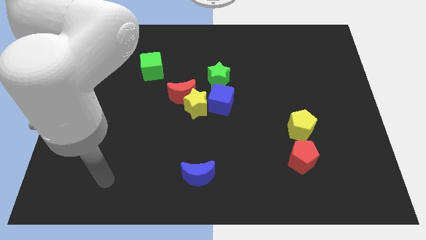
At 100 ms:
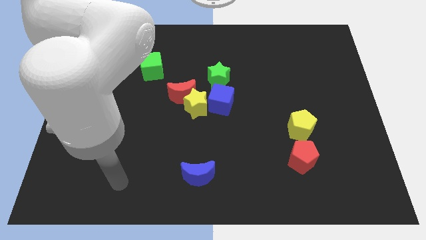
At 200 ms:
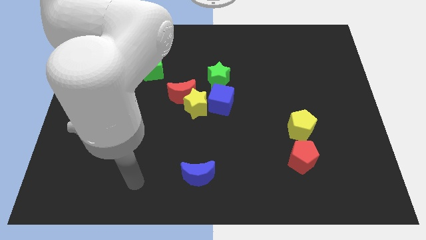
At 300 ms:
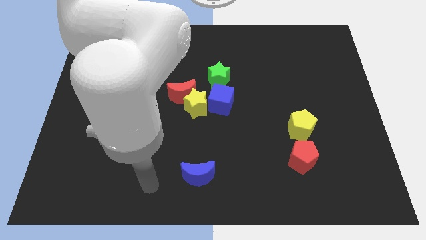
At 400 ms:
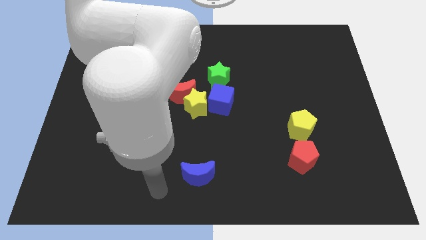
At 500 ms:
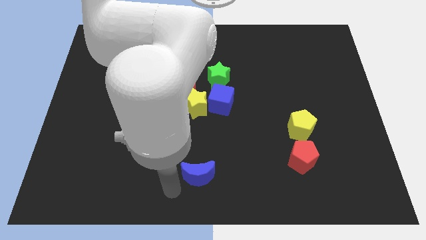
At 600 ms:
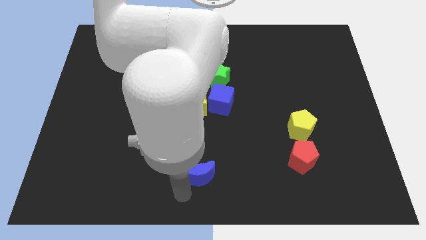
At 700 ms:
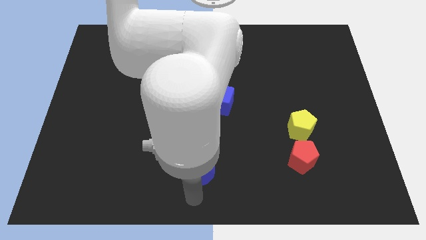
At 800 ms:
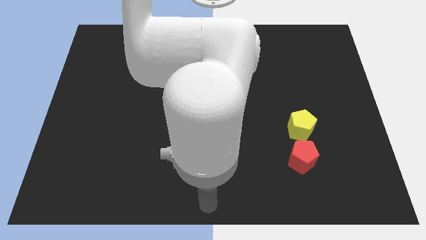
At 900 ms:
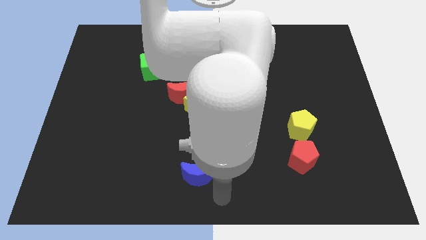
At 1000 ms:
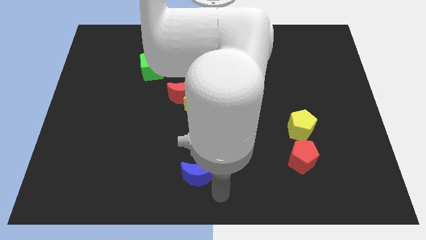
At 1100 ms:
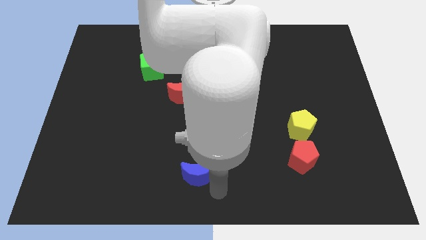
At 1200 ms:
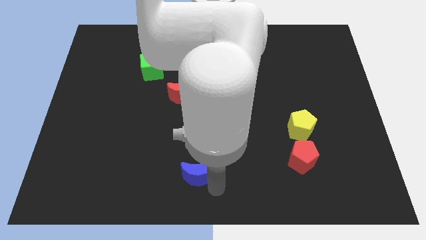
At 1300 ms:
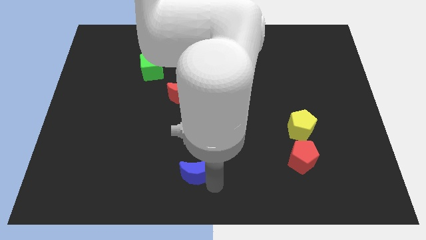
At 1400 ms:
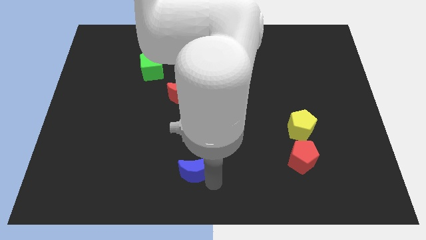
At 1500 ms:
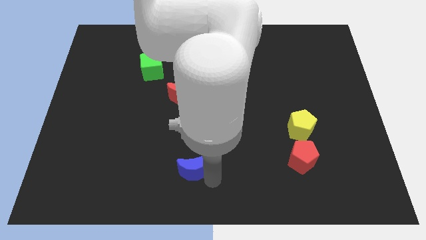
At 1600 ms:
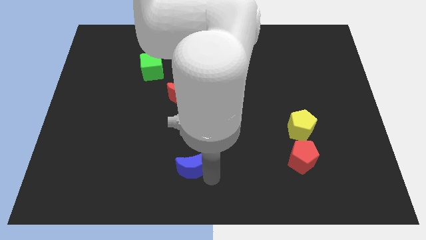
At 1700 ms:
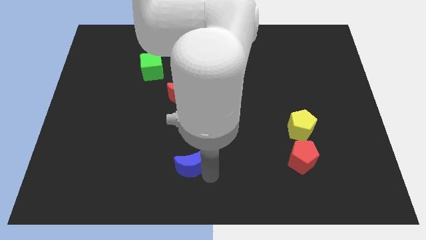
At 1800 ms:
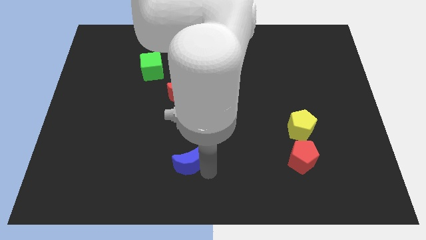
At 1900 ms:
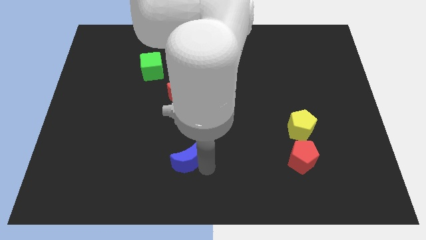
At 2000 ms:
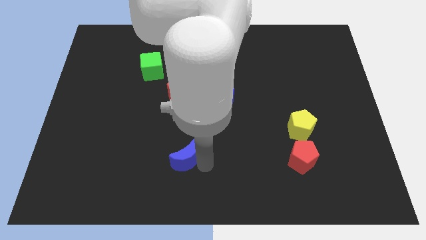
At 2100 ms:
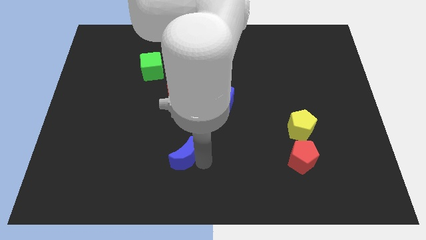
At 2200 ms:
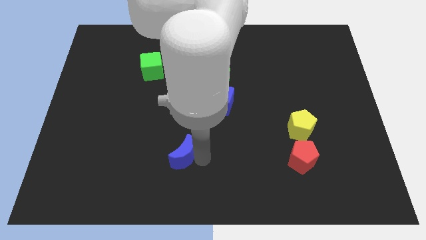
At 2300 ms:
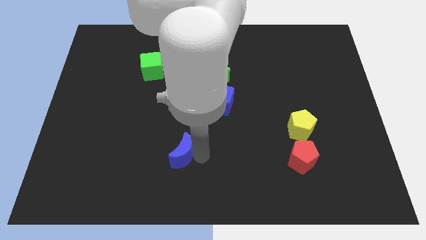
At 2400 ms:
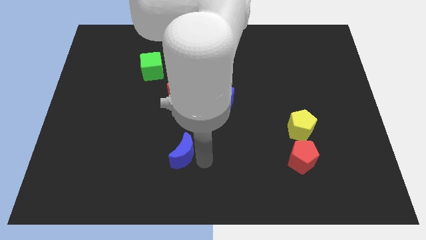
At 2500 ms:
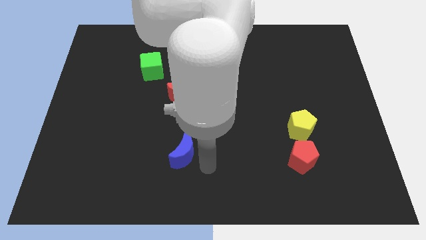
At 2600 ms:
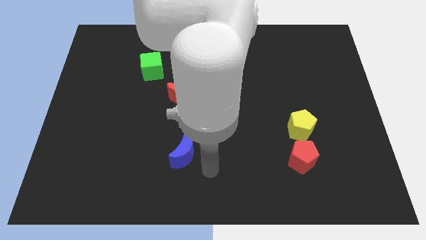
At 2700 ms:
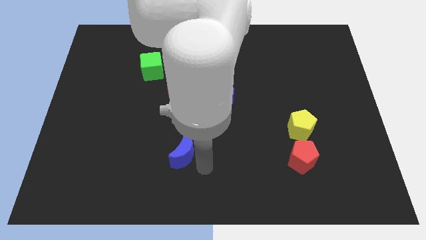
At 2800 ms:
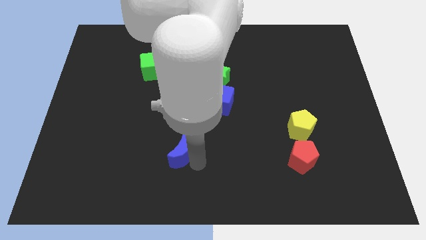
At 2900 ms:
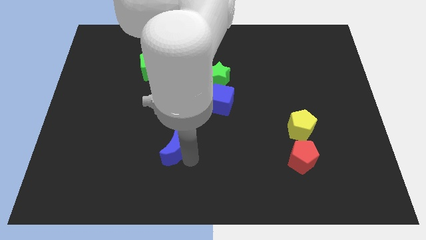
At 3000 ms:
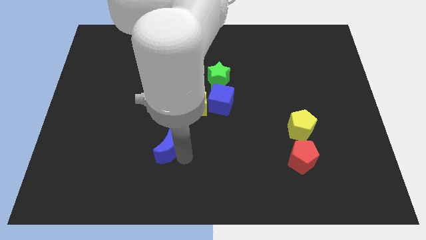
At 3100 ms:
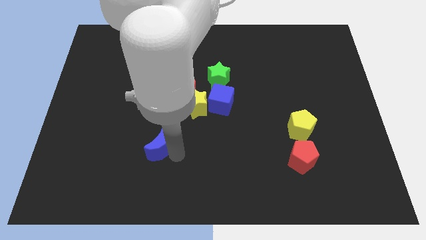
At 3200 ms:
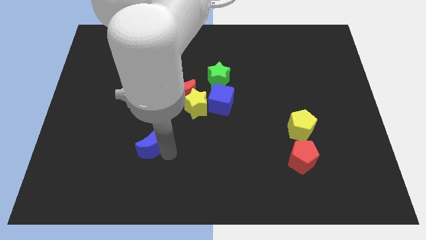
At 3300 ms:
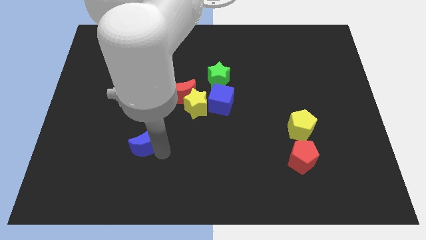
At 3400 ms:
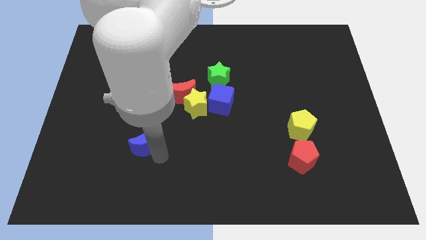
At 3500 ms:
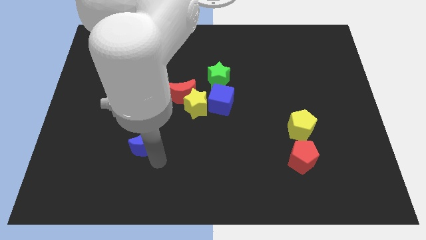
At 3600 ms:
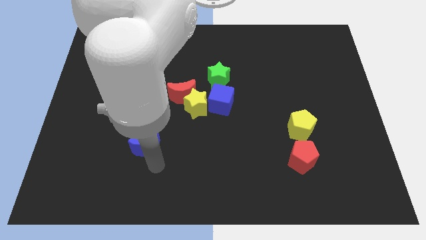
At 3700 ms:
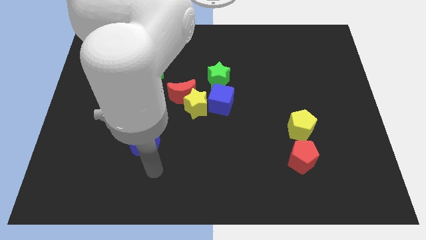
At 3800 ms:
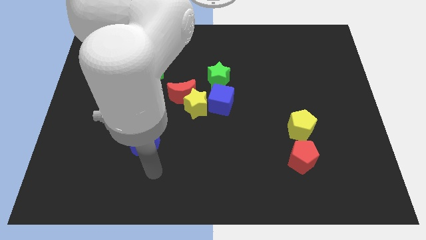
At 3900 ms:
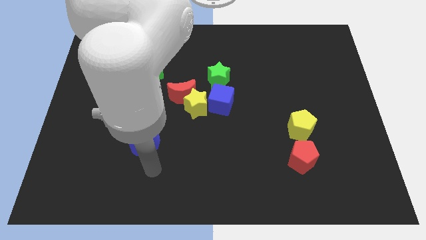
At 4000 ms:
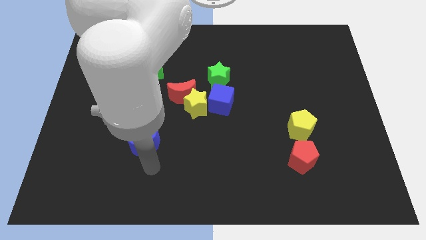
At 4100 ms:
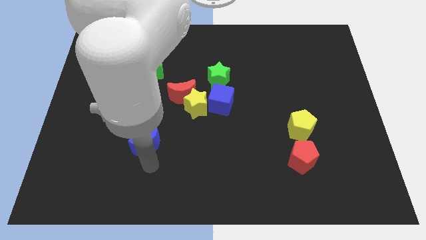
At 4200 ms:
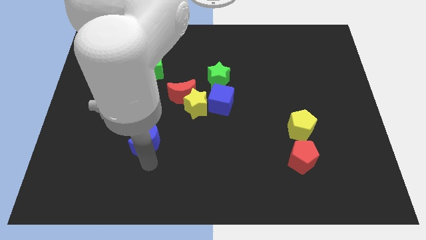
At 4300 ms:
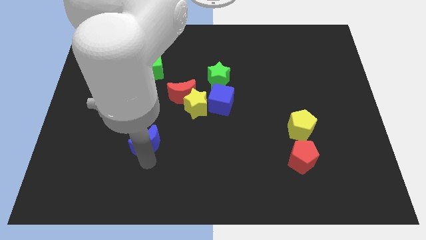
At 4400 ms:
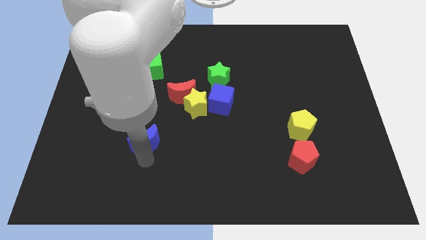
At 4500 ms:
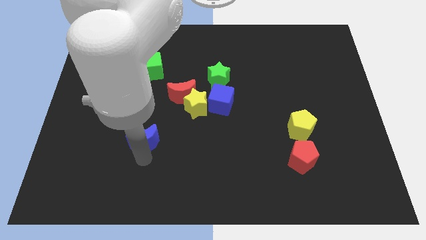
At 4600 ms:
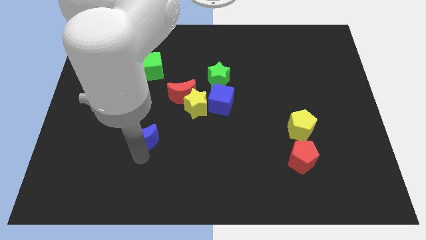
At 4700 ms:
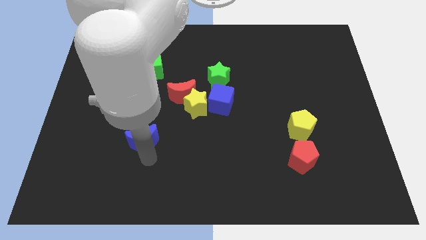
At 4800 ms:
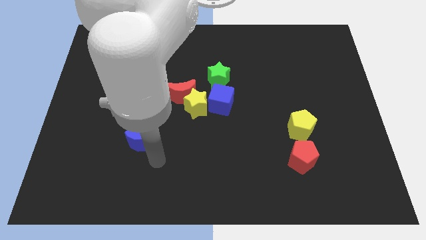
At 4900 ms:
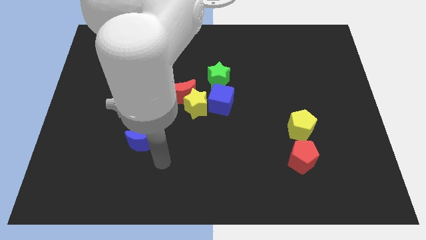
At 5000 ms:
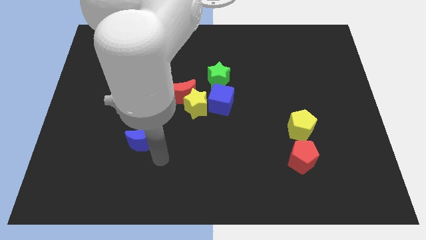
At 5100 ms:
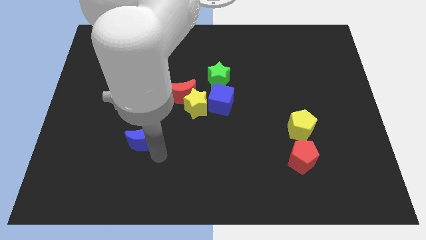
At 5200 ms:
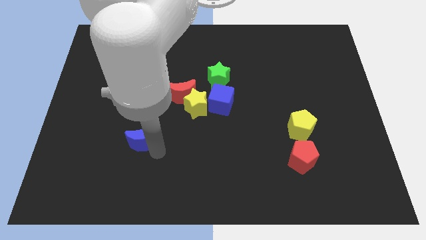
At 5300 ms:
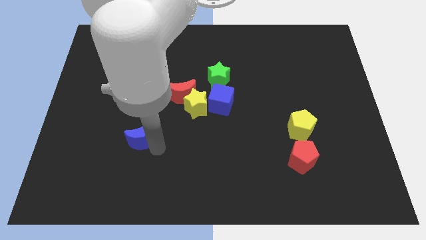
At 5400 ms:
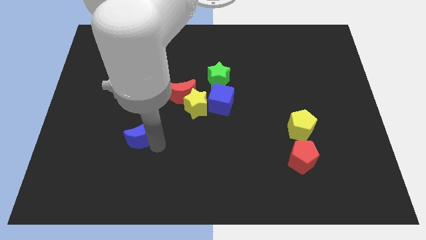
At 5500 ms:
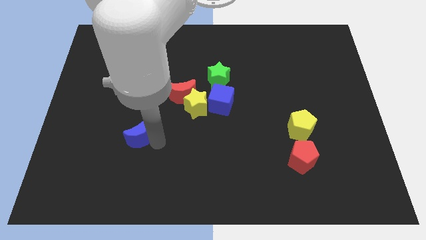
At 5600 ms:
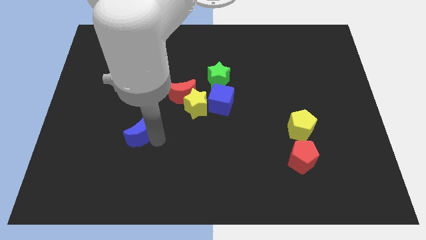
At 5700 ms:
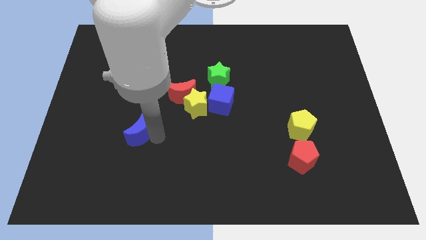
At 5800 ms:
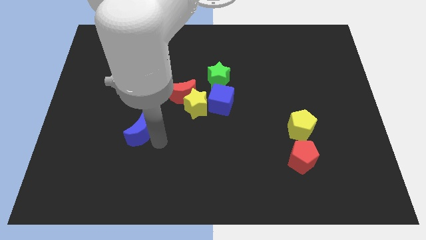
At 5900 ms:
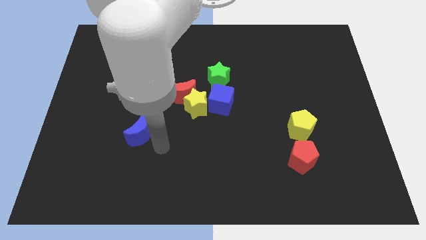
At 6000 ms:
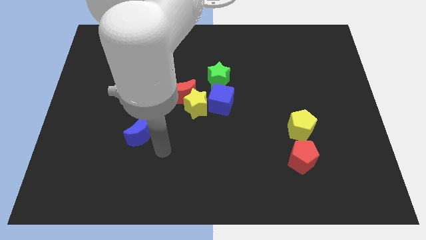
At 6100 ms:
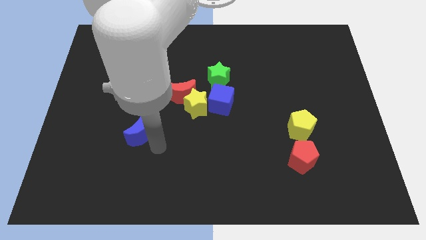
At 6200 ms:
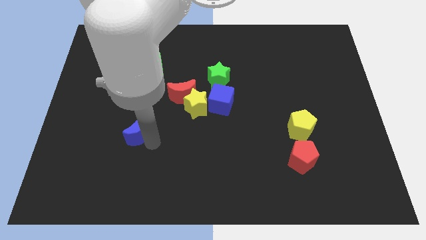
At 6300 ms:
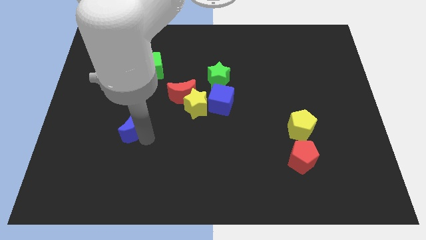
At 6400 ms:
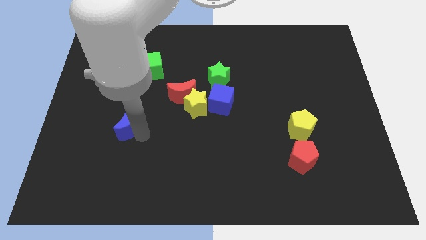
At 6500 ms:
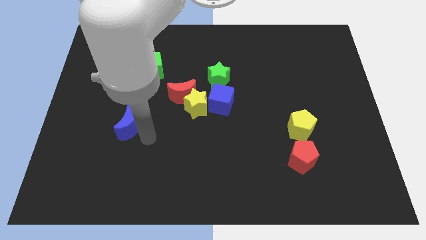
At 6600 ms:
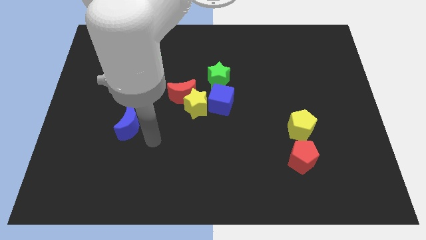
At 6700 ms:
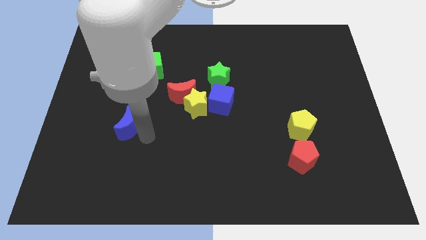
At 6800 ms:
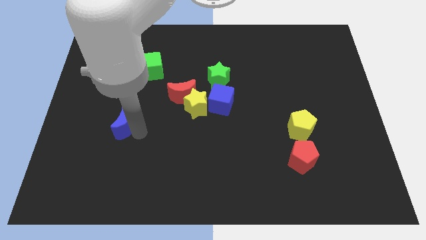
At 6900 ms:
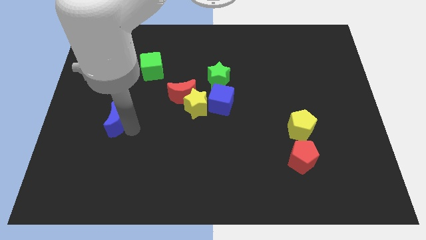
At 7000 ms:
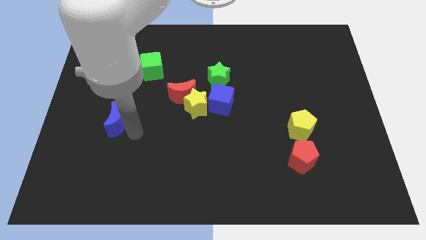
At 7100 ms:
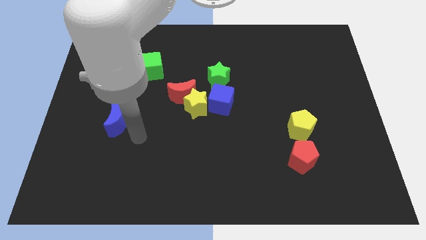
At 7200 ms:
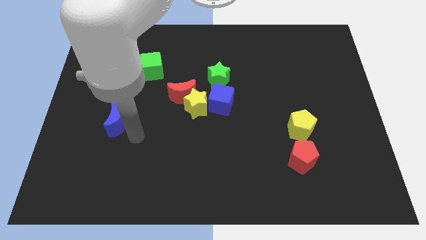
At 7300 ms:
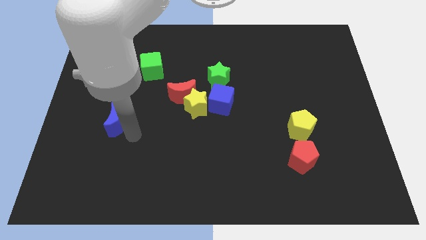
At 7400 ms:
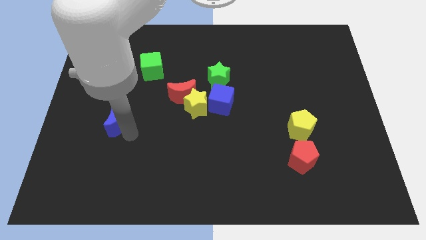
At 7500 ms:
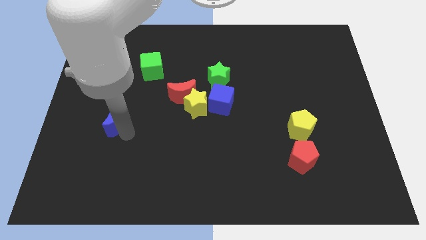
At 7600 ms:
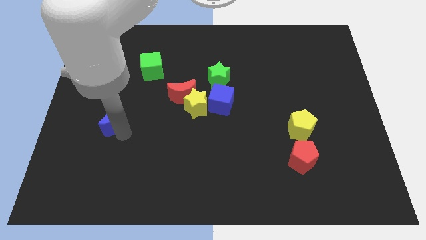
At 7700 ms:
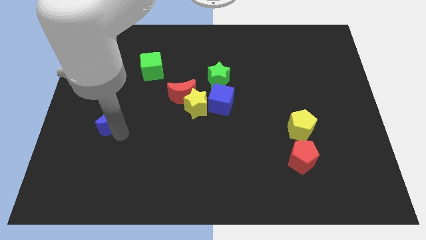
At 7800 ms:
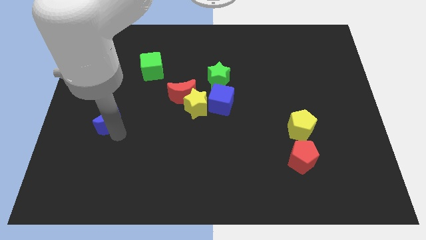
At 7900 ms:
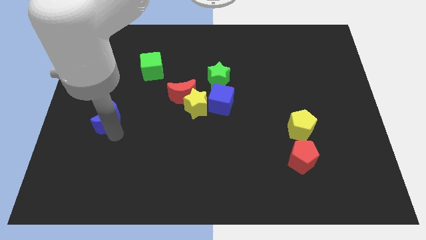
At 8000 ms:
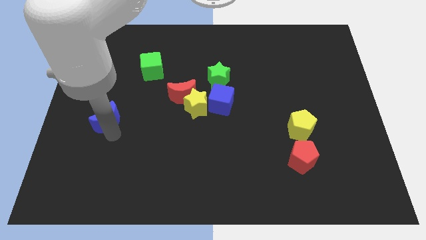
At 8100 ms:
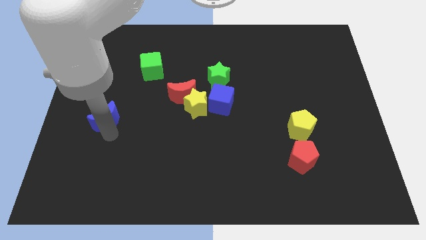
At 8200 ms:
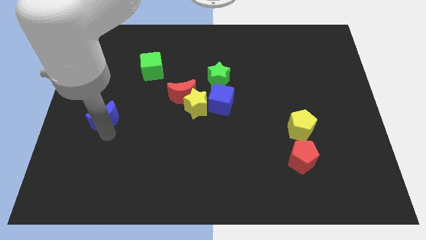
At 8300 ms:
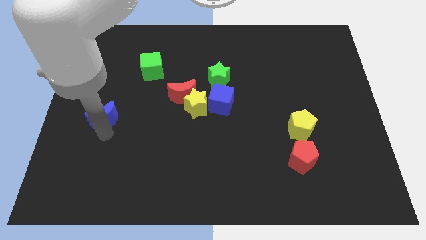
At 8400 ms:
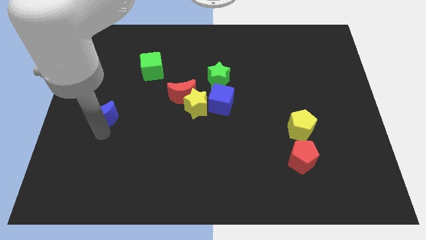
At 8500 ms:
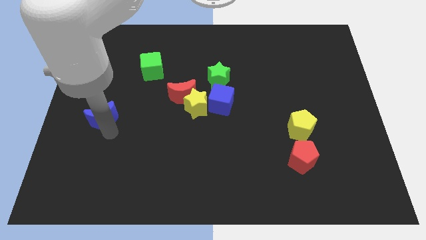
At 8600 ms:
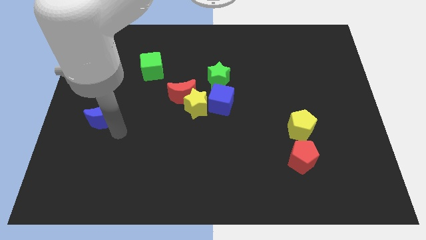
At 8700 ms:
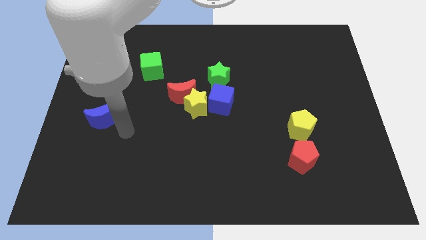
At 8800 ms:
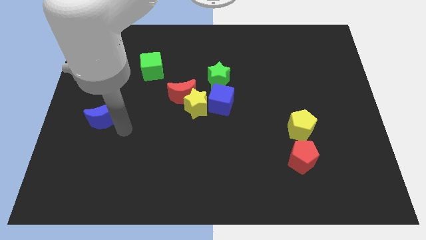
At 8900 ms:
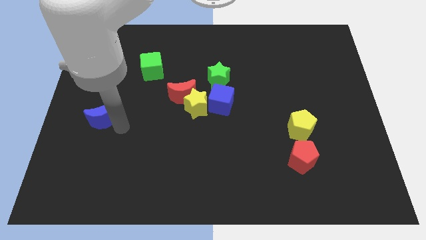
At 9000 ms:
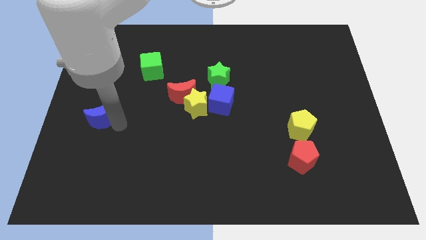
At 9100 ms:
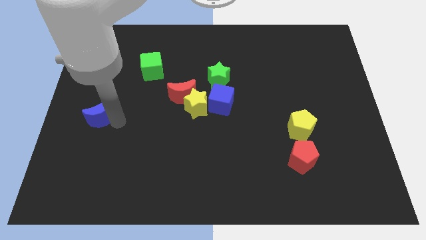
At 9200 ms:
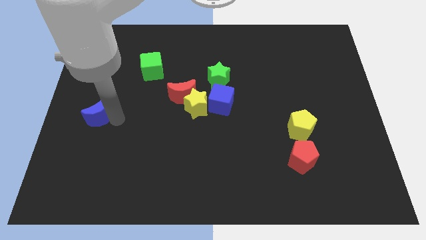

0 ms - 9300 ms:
put the blue moon to the left side of the board
